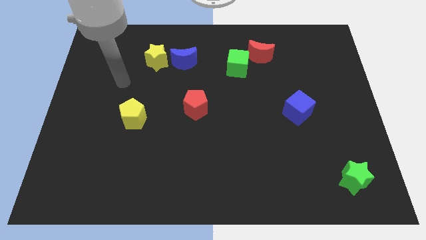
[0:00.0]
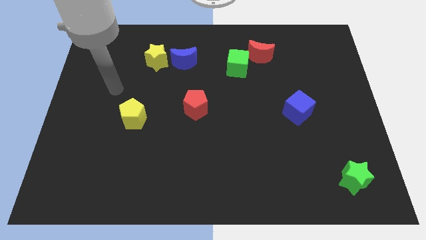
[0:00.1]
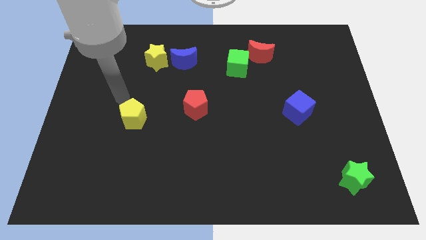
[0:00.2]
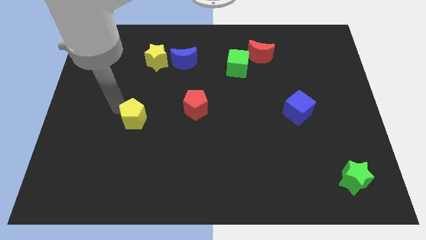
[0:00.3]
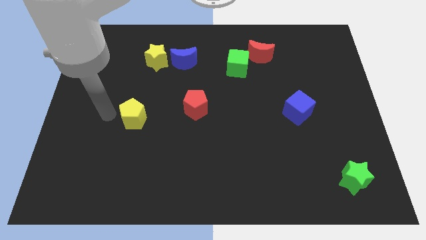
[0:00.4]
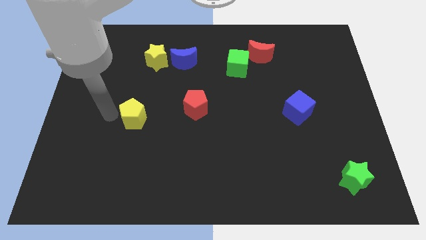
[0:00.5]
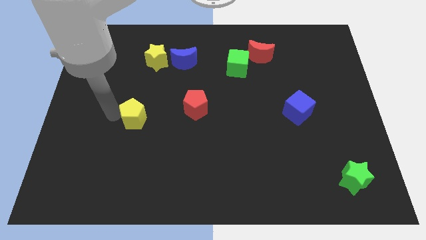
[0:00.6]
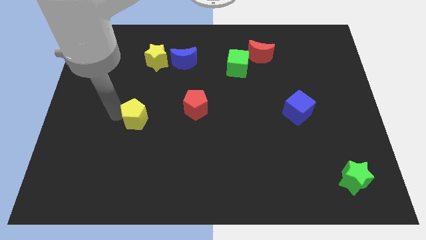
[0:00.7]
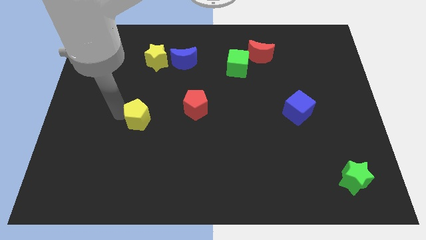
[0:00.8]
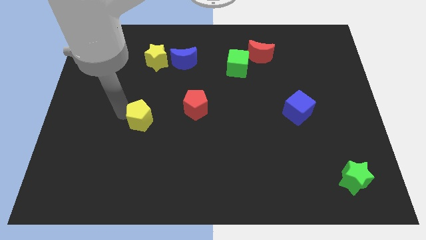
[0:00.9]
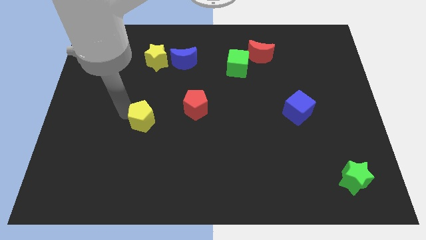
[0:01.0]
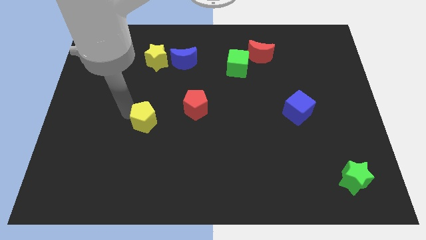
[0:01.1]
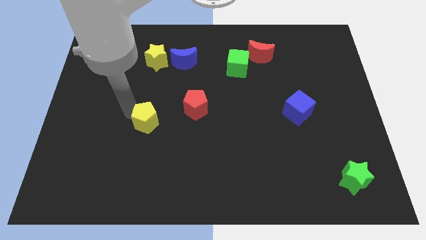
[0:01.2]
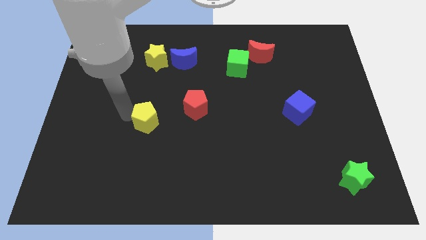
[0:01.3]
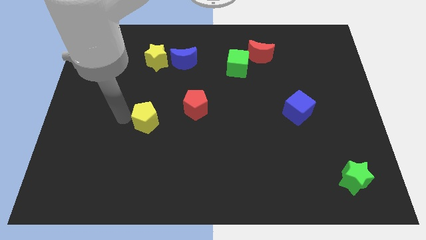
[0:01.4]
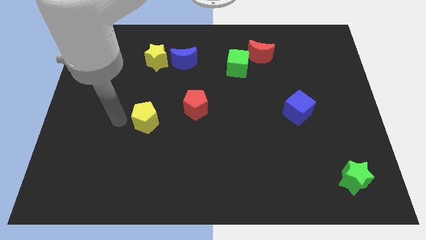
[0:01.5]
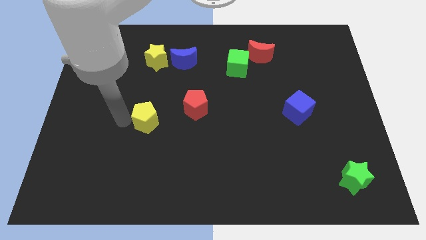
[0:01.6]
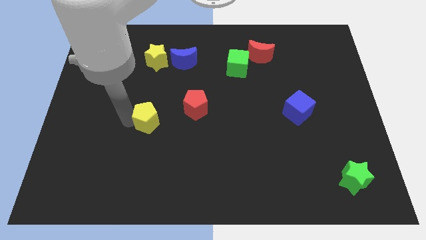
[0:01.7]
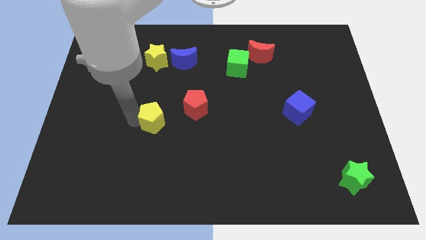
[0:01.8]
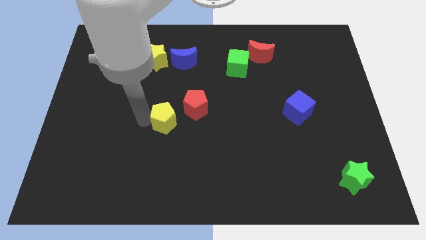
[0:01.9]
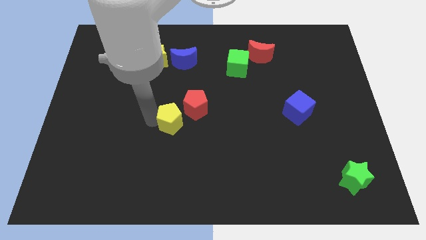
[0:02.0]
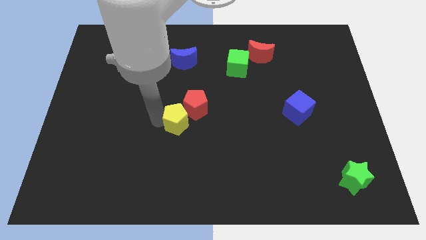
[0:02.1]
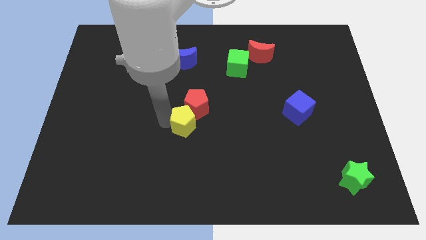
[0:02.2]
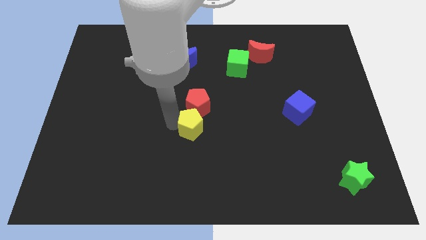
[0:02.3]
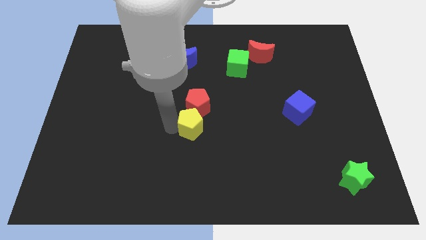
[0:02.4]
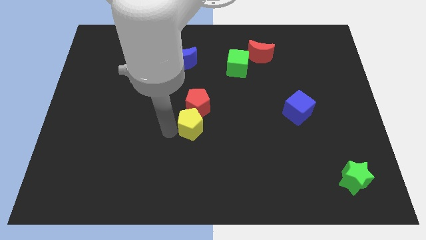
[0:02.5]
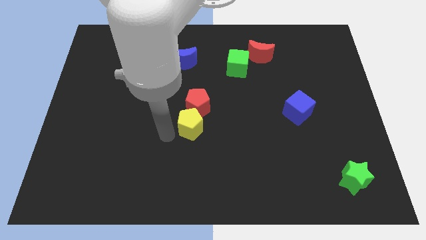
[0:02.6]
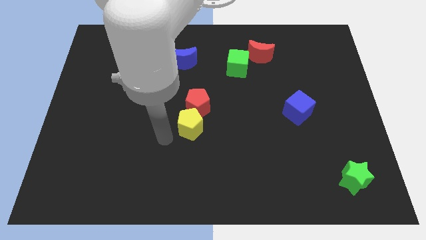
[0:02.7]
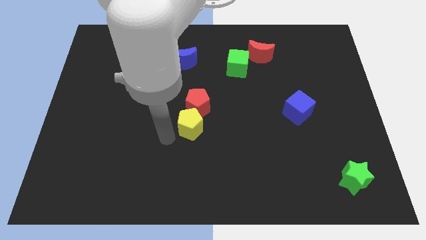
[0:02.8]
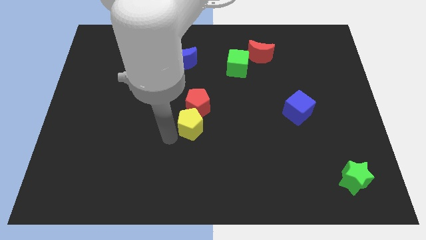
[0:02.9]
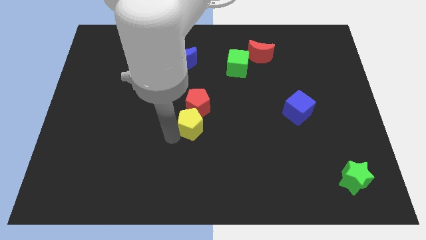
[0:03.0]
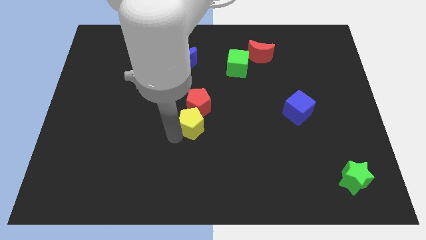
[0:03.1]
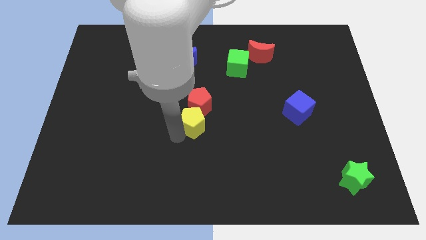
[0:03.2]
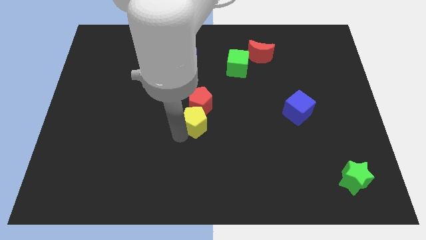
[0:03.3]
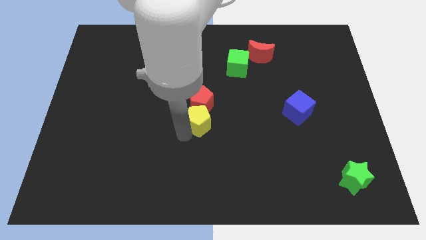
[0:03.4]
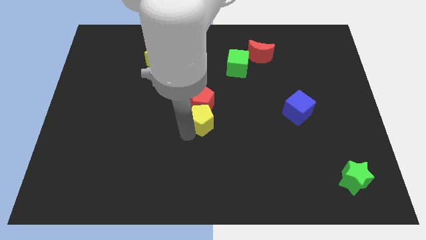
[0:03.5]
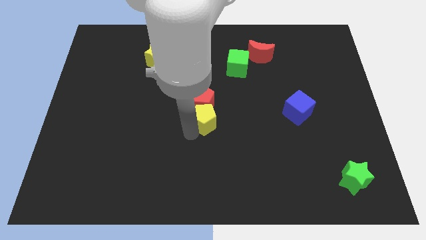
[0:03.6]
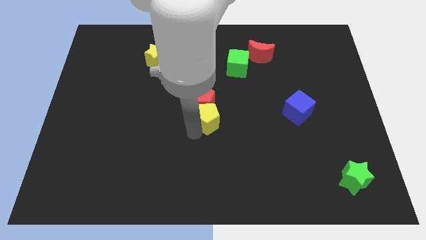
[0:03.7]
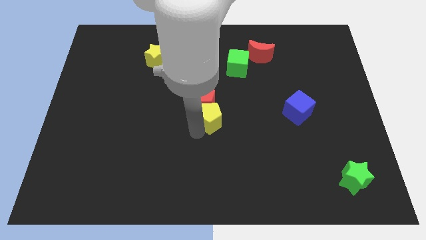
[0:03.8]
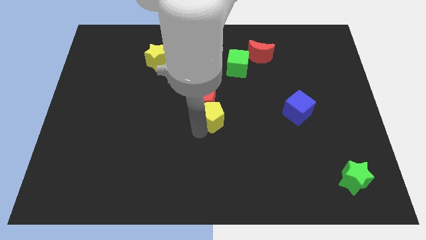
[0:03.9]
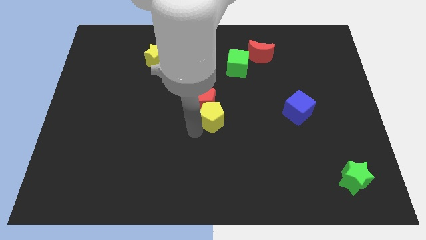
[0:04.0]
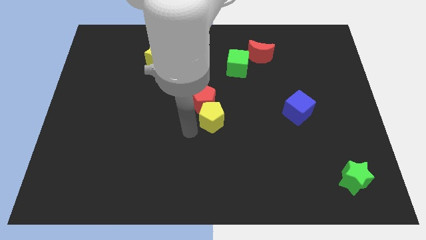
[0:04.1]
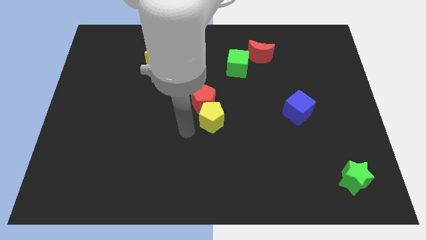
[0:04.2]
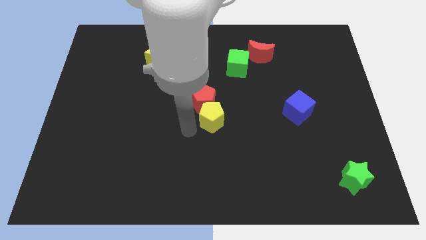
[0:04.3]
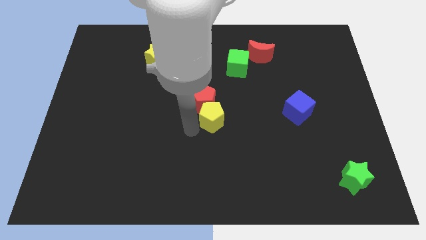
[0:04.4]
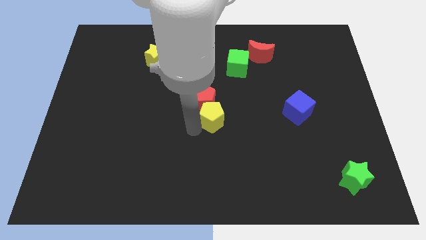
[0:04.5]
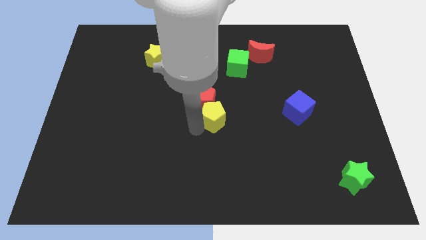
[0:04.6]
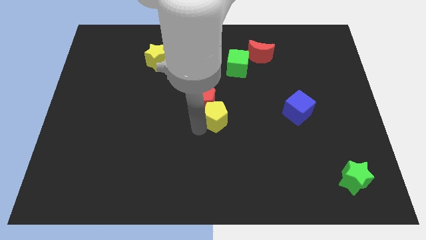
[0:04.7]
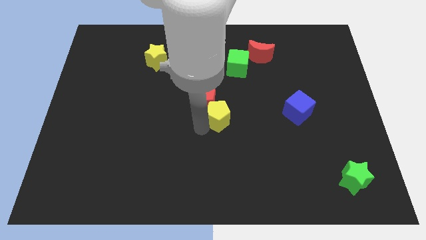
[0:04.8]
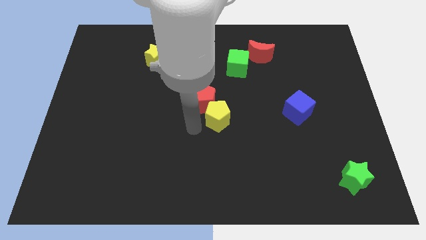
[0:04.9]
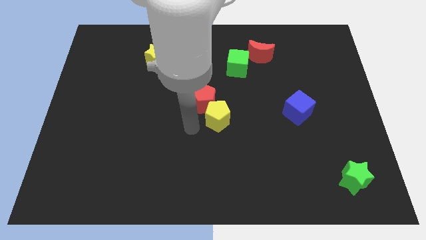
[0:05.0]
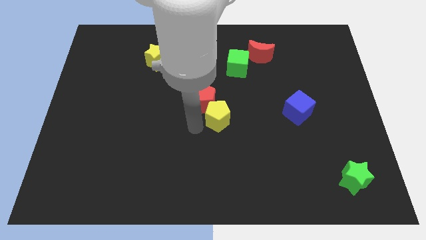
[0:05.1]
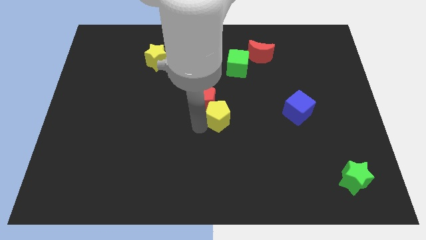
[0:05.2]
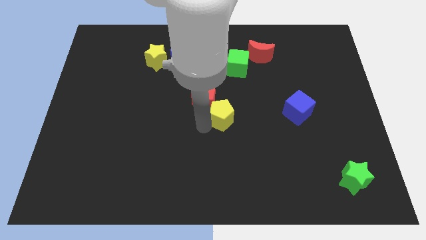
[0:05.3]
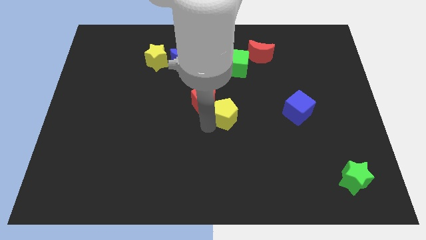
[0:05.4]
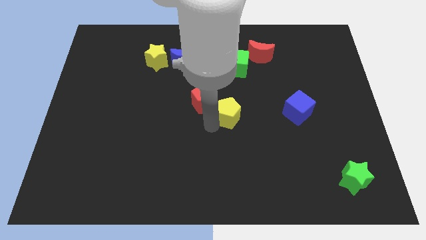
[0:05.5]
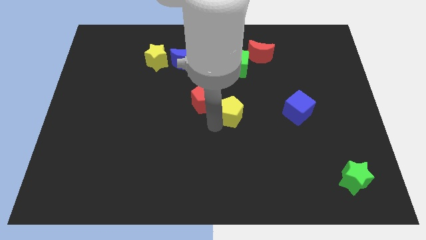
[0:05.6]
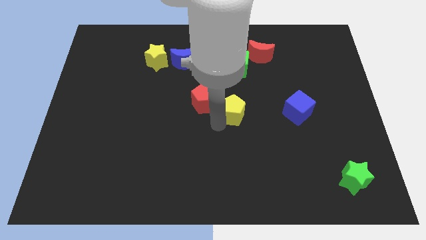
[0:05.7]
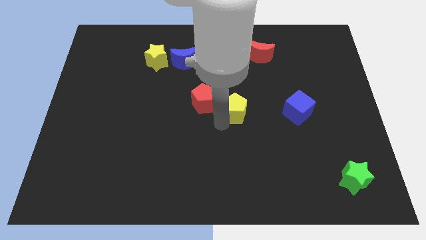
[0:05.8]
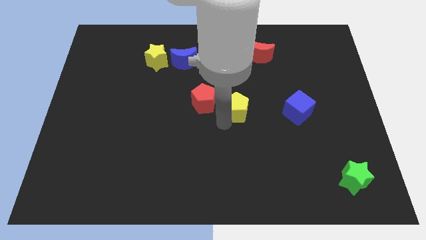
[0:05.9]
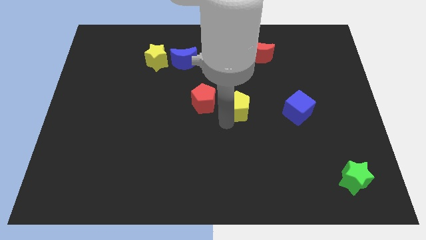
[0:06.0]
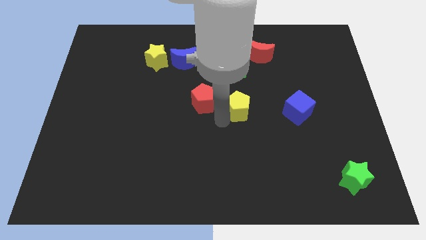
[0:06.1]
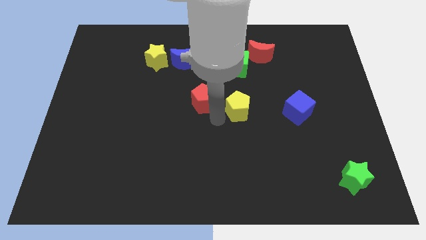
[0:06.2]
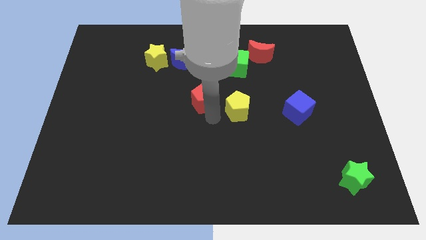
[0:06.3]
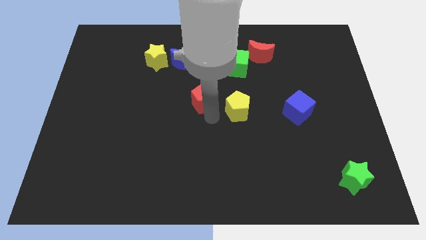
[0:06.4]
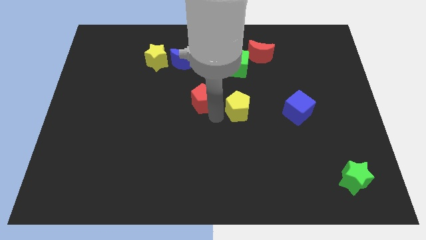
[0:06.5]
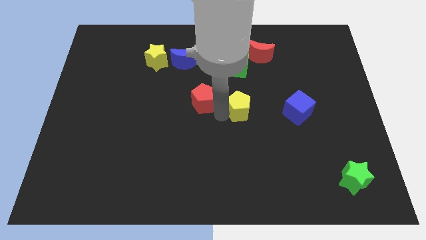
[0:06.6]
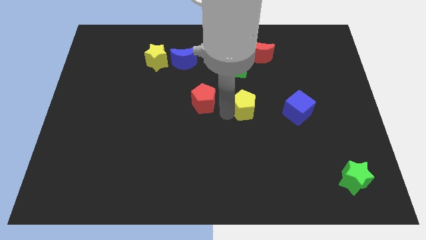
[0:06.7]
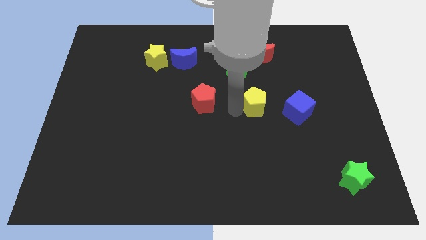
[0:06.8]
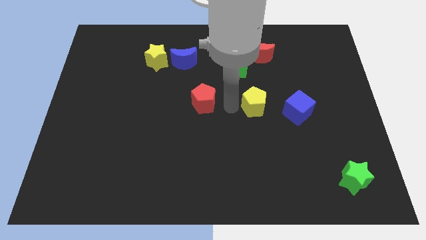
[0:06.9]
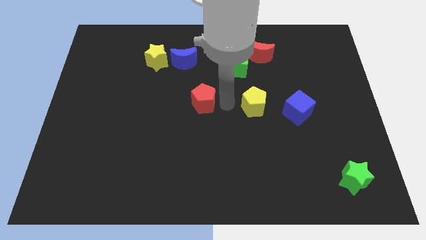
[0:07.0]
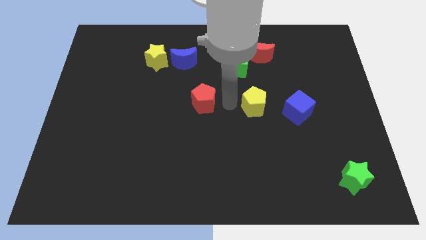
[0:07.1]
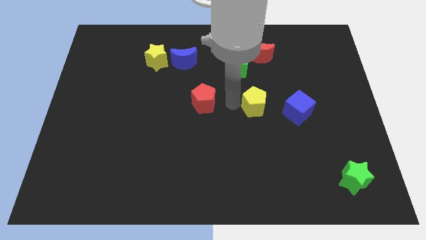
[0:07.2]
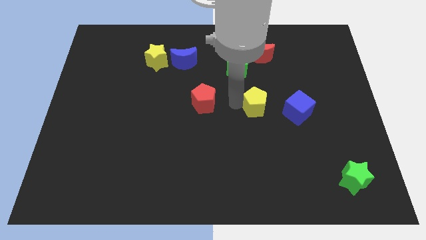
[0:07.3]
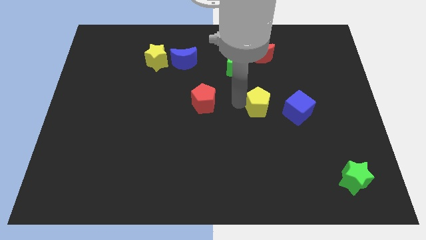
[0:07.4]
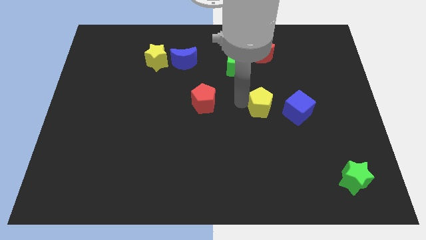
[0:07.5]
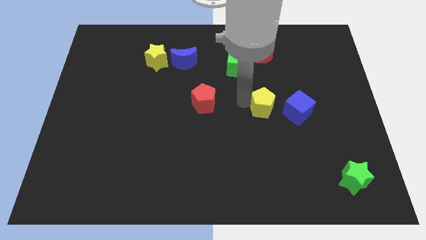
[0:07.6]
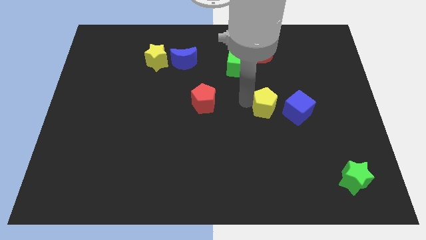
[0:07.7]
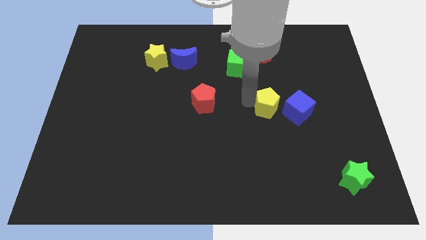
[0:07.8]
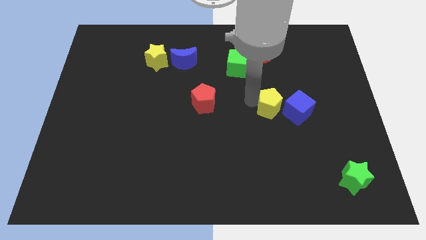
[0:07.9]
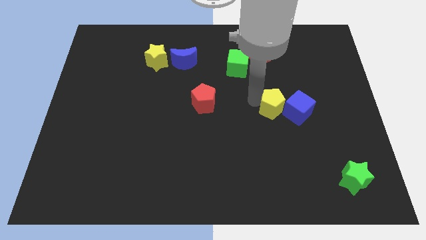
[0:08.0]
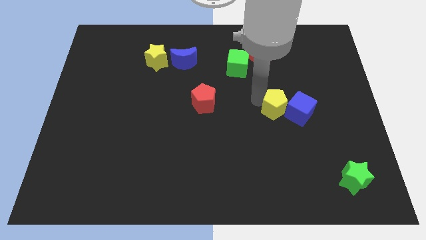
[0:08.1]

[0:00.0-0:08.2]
push the yellow pentagon to the blue cube
